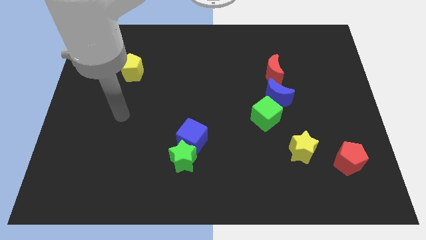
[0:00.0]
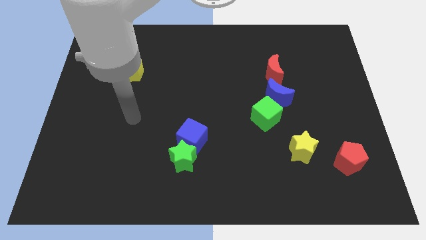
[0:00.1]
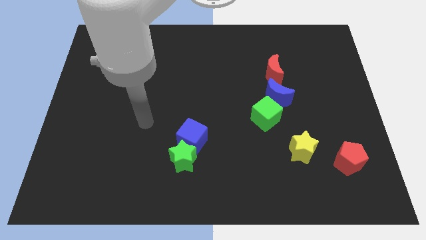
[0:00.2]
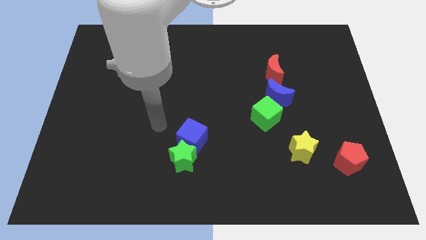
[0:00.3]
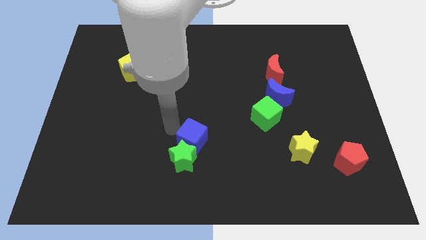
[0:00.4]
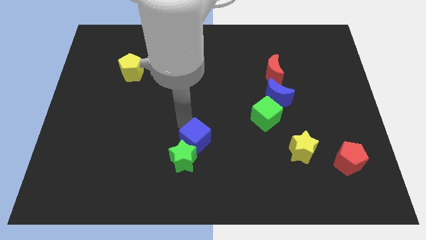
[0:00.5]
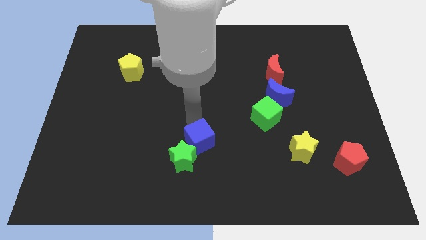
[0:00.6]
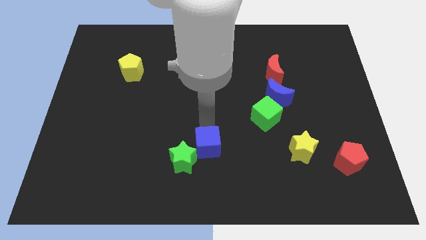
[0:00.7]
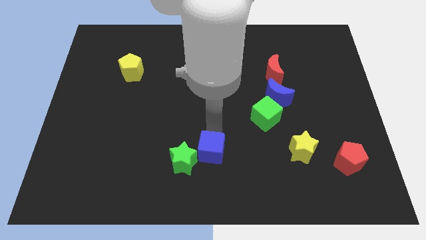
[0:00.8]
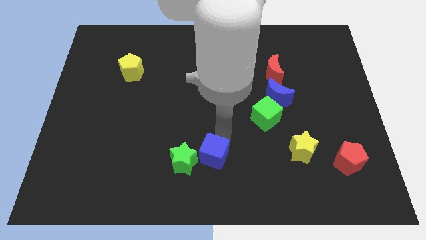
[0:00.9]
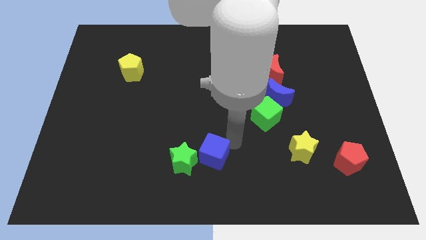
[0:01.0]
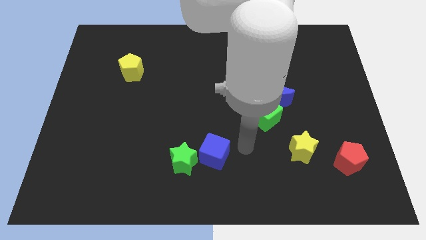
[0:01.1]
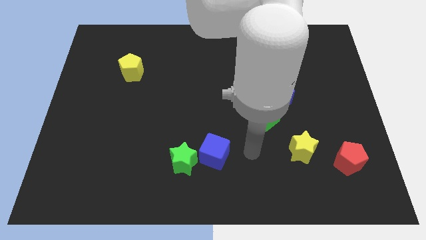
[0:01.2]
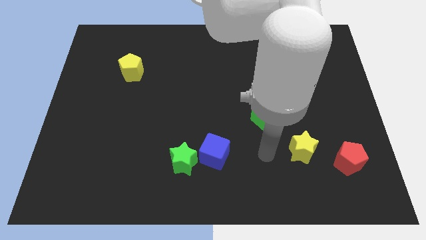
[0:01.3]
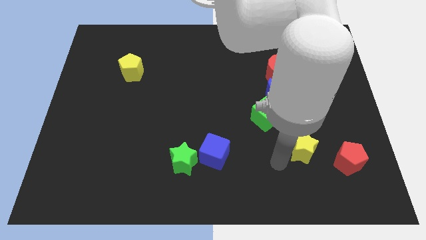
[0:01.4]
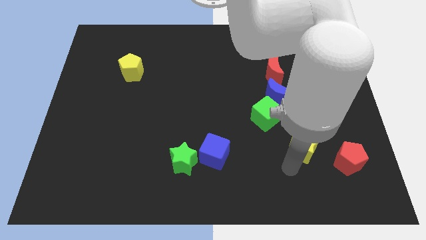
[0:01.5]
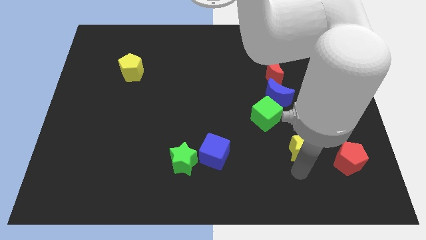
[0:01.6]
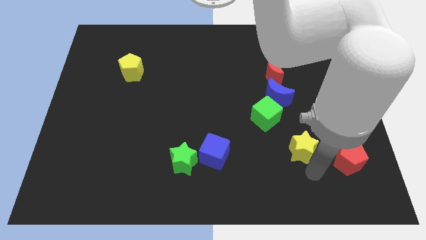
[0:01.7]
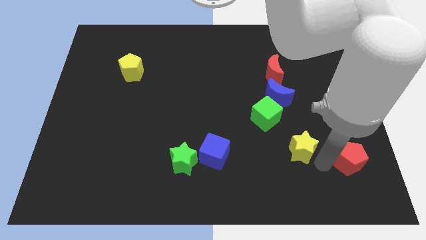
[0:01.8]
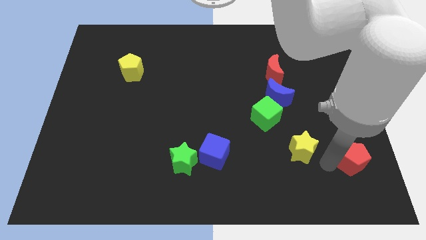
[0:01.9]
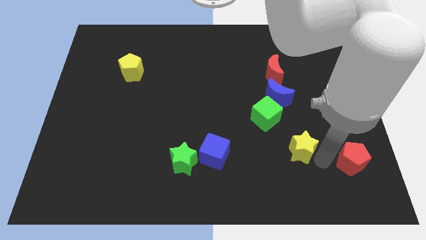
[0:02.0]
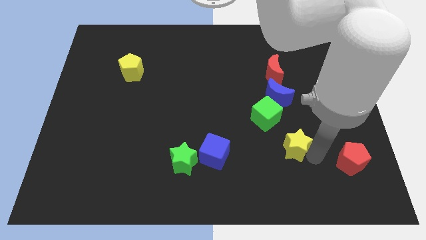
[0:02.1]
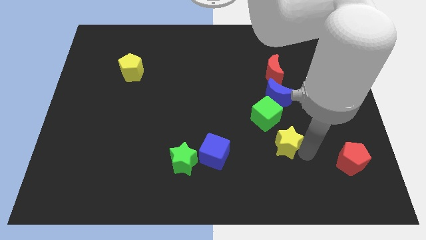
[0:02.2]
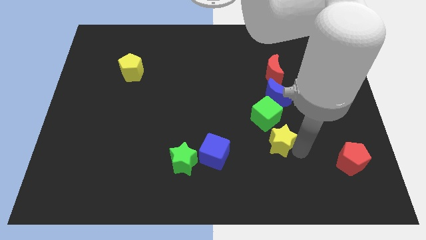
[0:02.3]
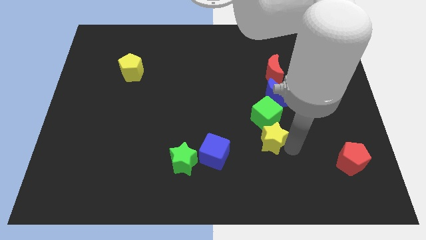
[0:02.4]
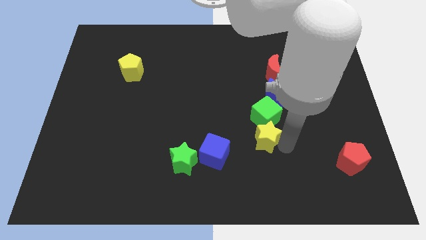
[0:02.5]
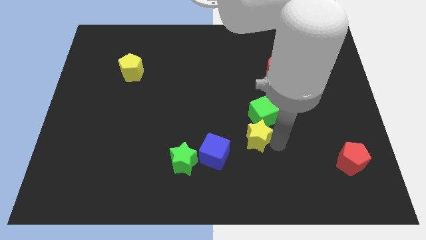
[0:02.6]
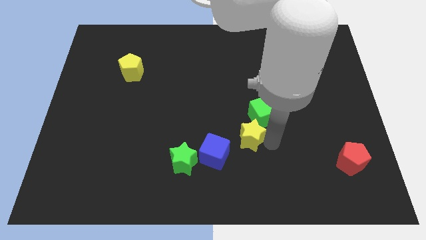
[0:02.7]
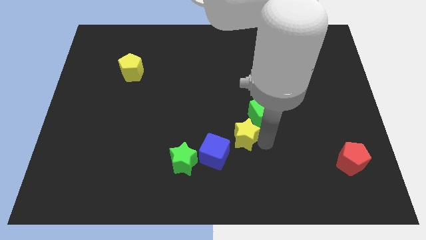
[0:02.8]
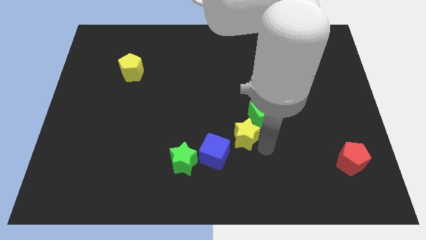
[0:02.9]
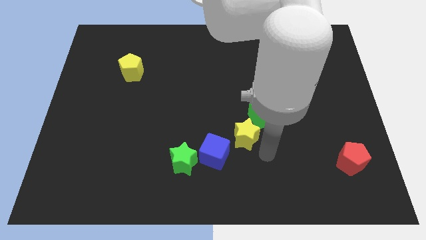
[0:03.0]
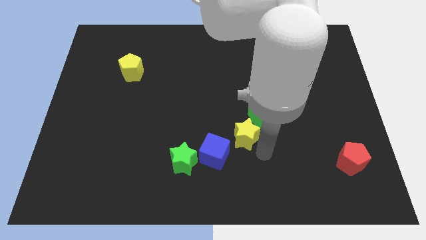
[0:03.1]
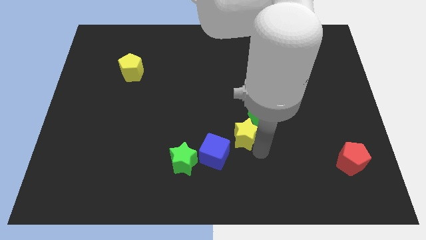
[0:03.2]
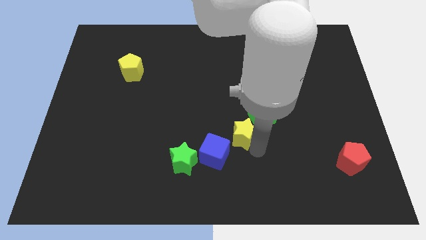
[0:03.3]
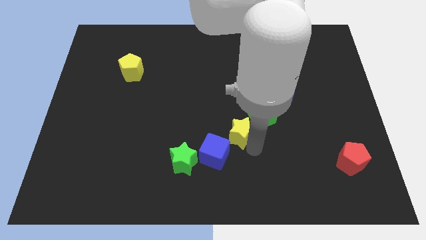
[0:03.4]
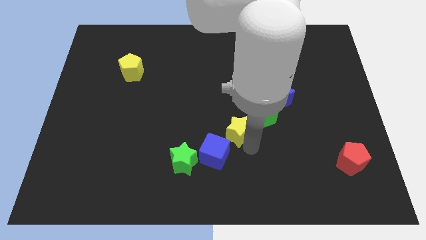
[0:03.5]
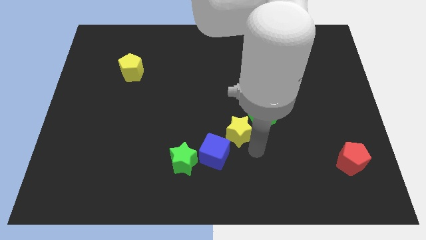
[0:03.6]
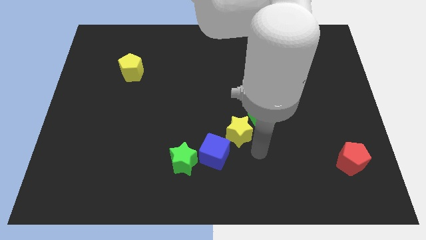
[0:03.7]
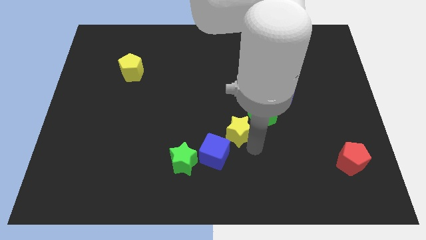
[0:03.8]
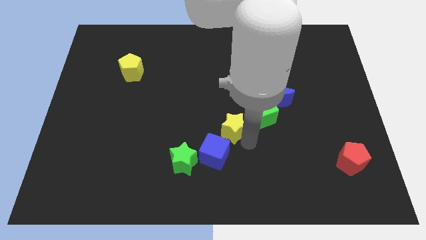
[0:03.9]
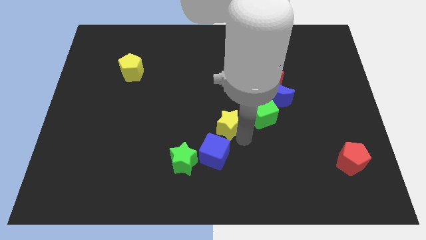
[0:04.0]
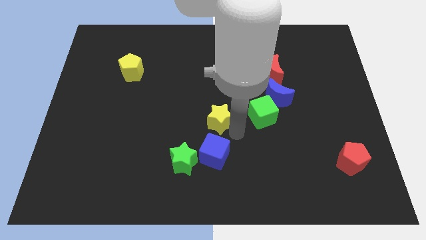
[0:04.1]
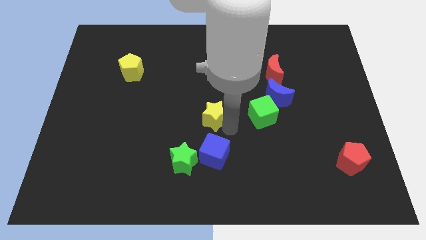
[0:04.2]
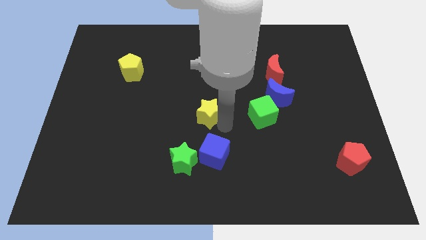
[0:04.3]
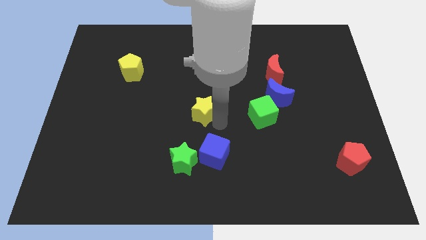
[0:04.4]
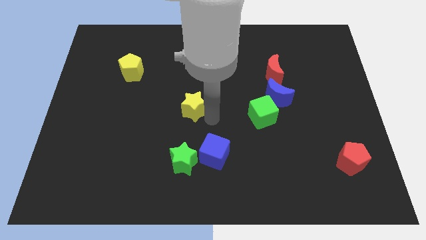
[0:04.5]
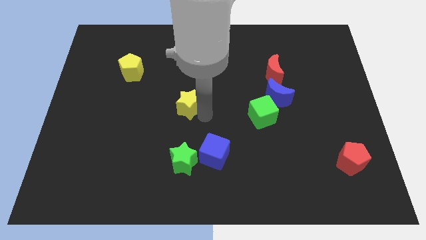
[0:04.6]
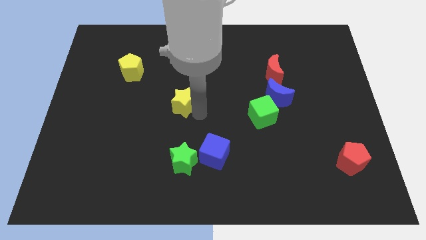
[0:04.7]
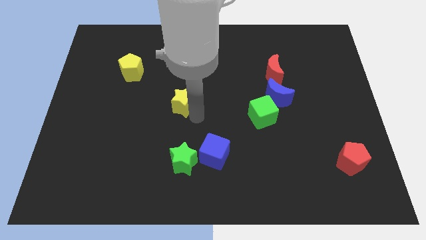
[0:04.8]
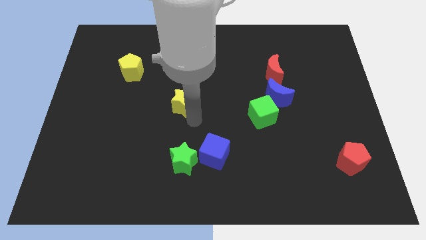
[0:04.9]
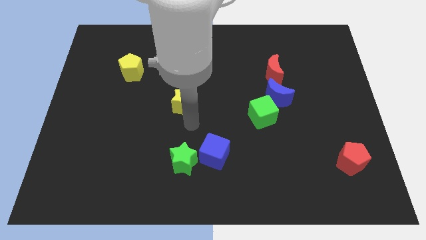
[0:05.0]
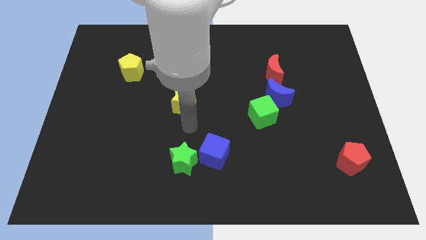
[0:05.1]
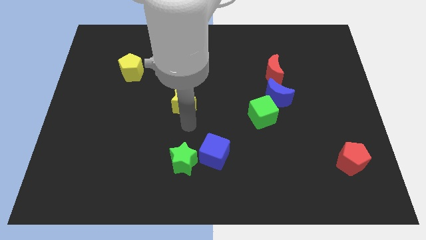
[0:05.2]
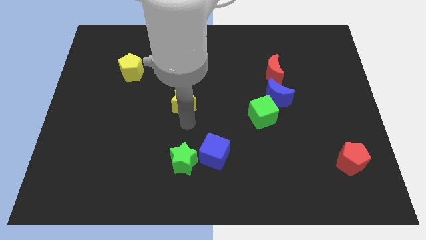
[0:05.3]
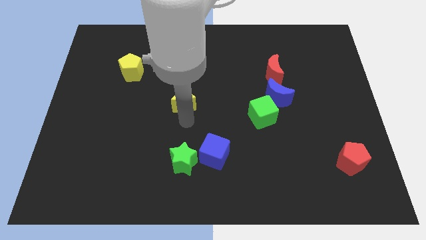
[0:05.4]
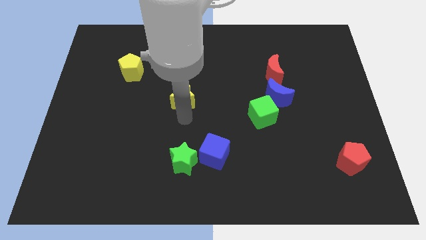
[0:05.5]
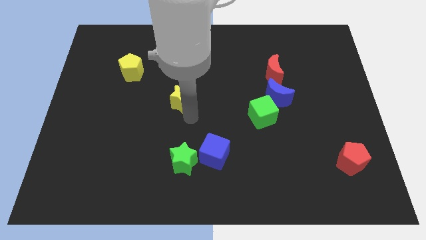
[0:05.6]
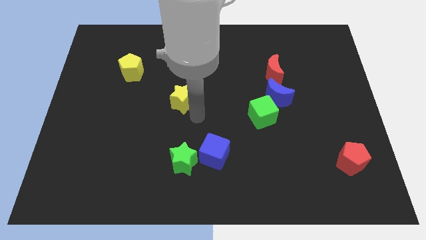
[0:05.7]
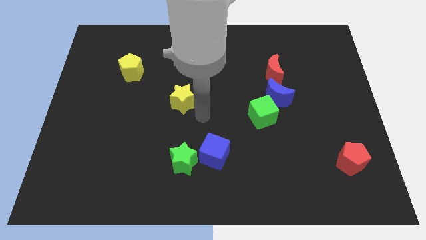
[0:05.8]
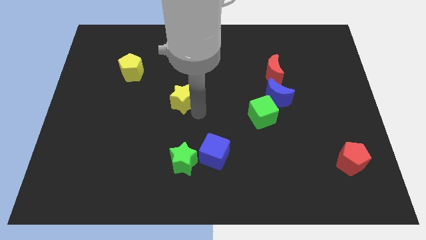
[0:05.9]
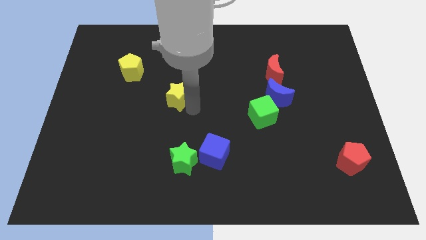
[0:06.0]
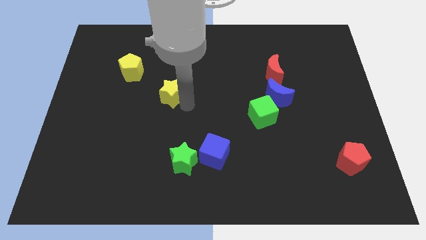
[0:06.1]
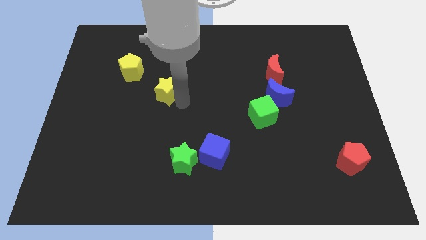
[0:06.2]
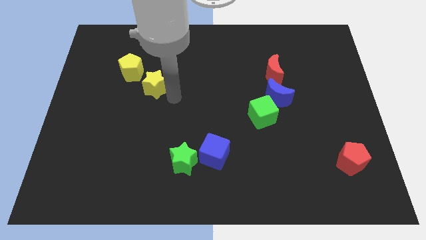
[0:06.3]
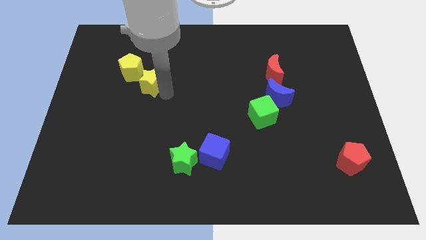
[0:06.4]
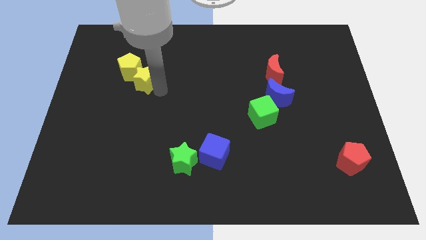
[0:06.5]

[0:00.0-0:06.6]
move the yellow star towards the yellow pentagon
